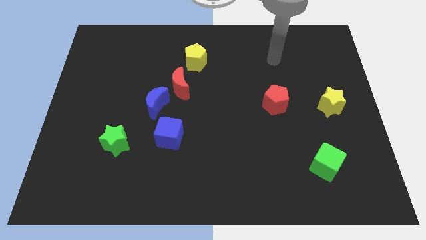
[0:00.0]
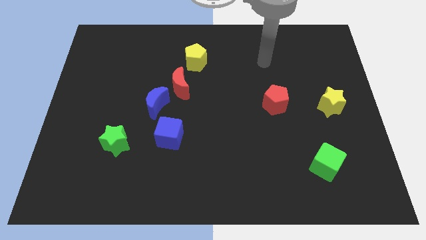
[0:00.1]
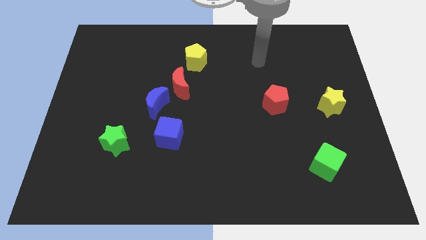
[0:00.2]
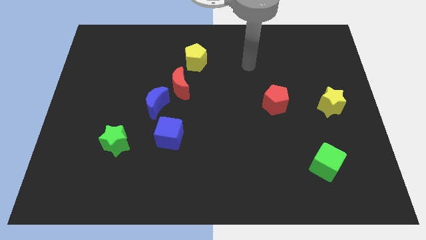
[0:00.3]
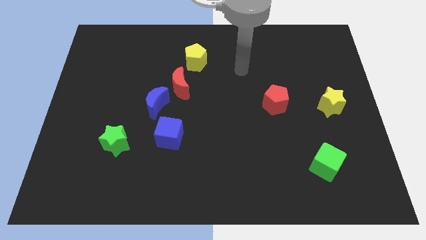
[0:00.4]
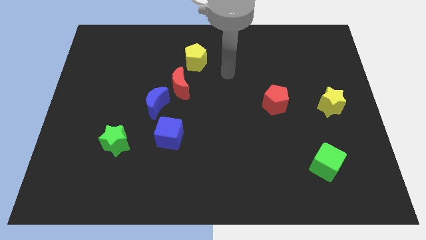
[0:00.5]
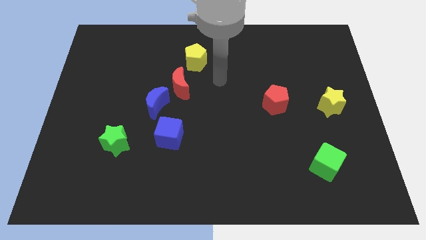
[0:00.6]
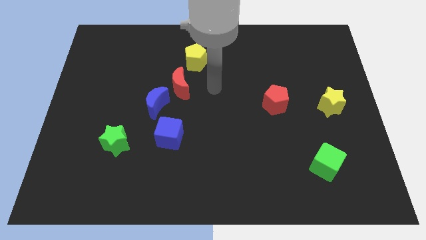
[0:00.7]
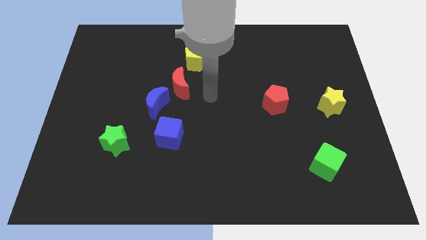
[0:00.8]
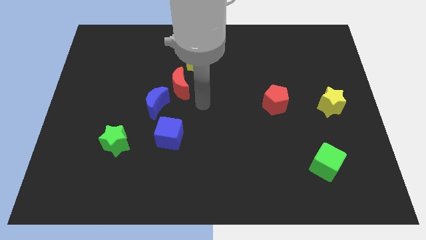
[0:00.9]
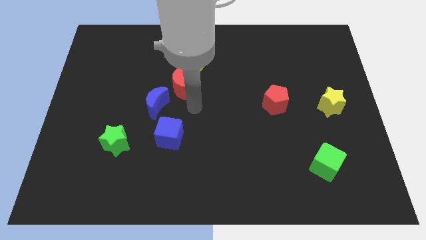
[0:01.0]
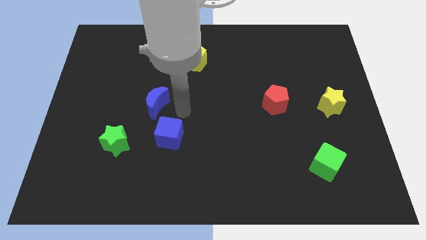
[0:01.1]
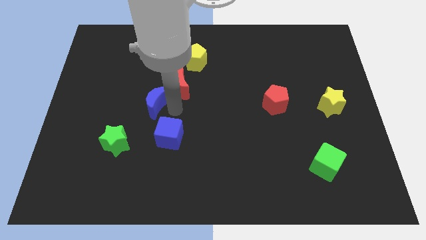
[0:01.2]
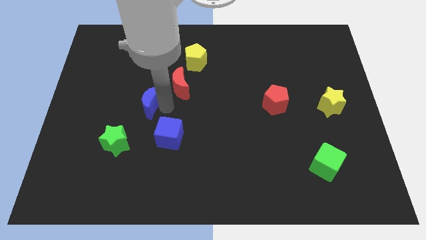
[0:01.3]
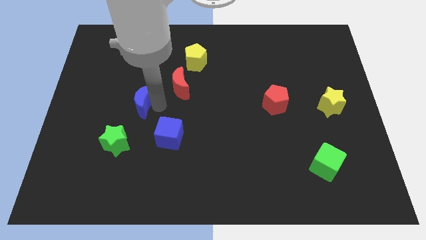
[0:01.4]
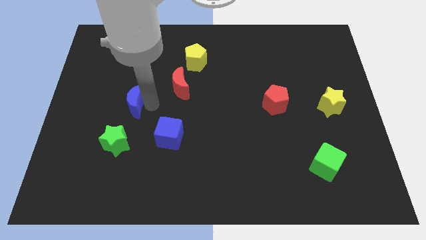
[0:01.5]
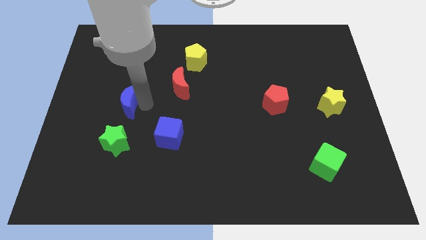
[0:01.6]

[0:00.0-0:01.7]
separate the blue moon from the red moon and blue cube

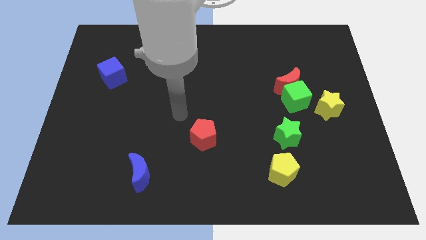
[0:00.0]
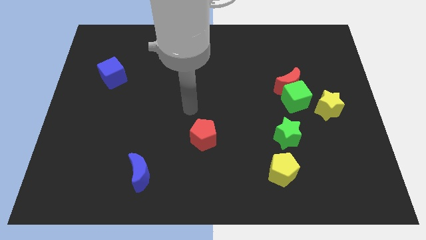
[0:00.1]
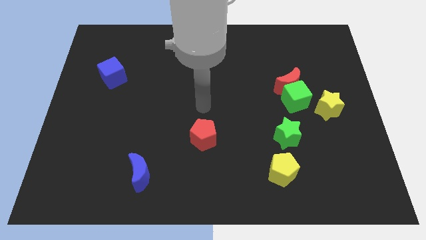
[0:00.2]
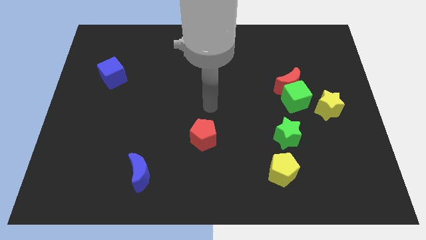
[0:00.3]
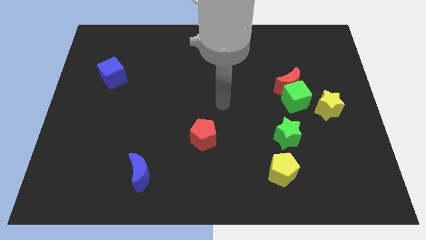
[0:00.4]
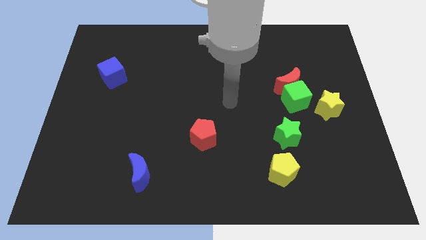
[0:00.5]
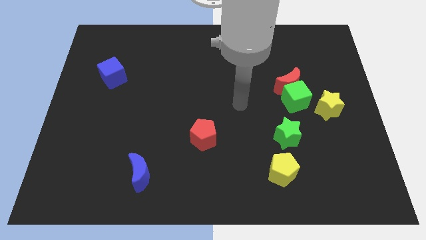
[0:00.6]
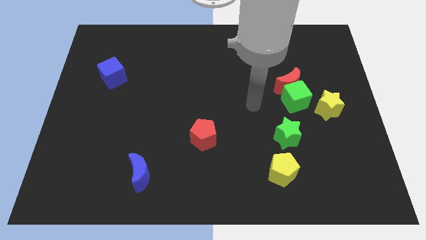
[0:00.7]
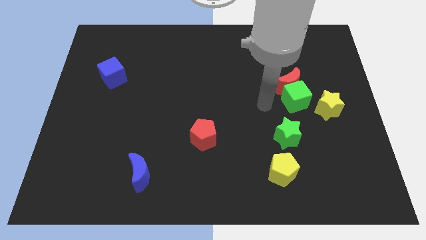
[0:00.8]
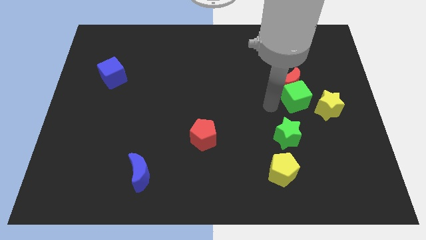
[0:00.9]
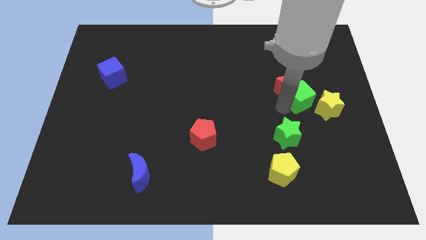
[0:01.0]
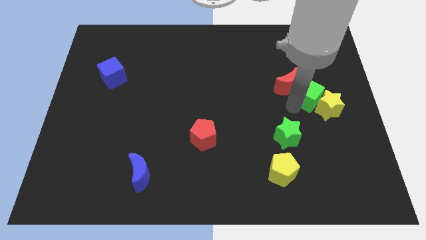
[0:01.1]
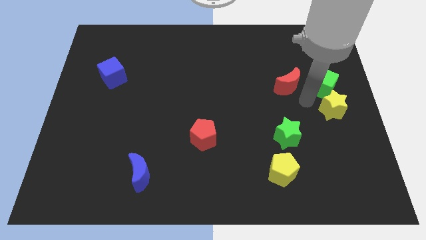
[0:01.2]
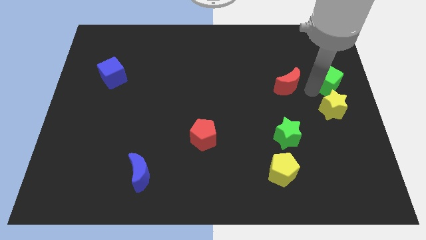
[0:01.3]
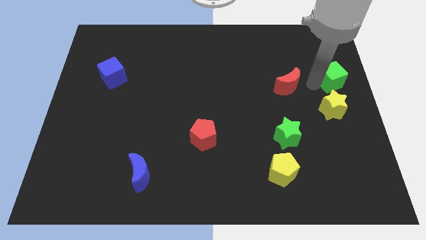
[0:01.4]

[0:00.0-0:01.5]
move the red moon away from the green cube

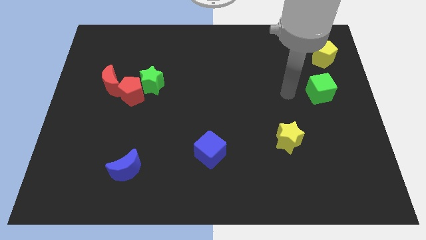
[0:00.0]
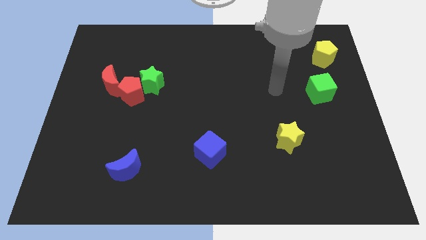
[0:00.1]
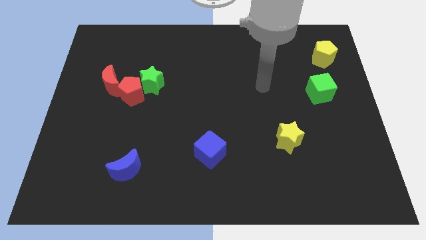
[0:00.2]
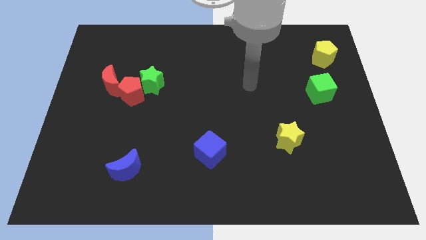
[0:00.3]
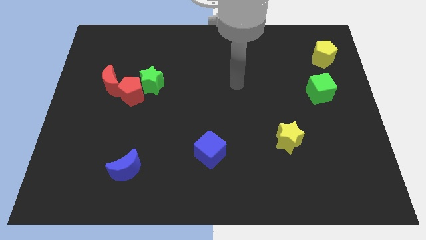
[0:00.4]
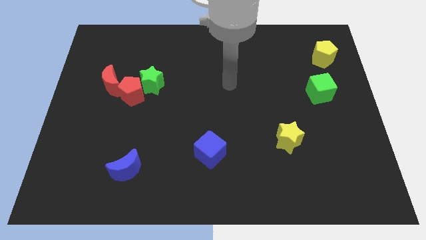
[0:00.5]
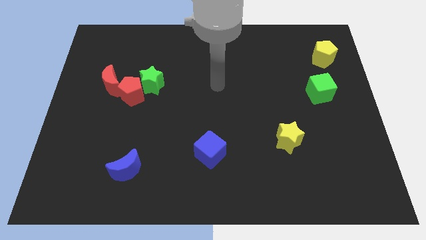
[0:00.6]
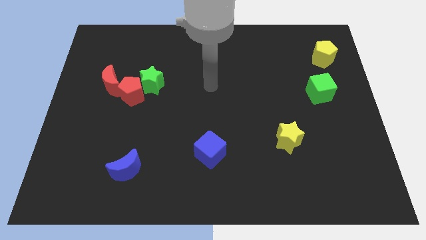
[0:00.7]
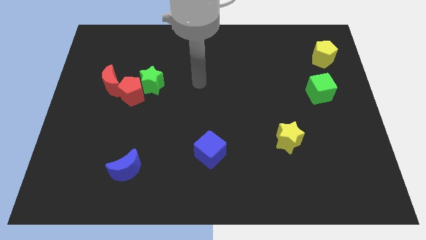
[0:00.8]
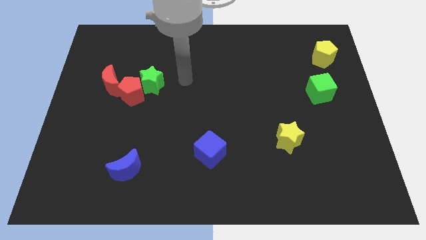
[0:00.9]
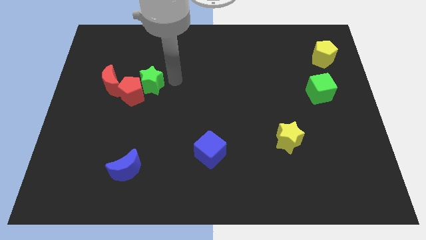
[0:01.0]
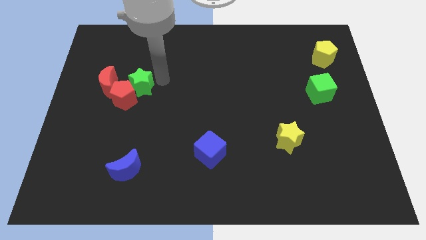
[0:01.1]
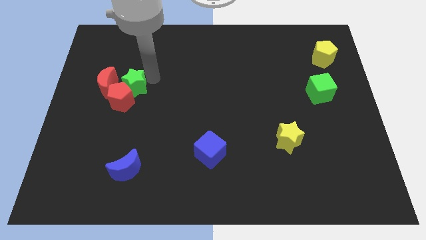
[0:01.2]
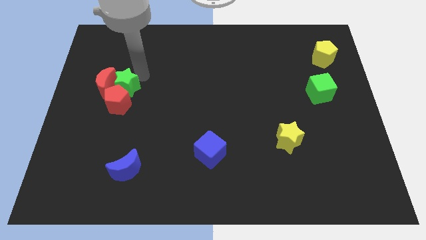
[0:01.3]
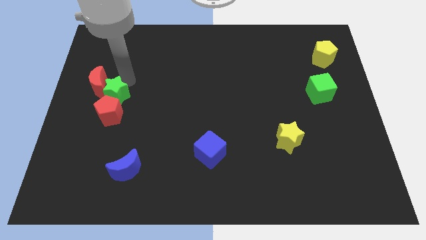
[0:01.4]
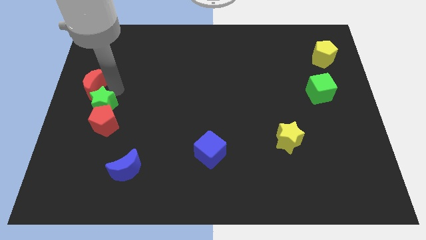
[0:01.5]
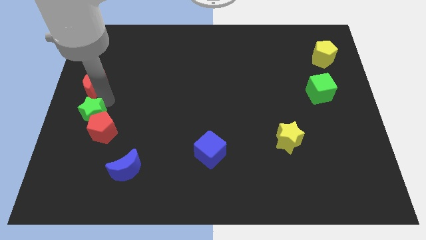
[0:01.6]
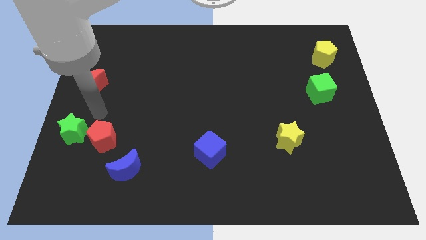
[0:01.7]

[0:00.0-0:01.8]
pull the red pentagon apart from the green star and red moon

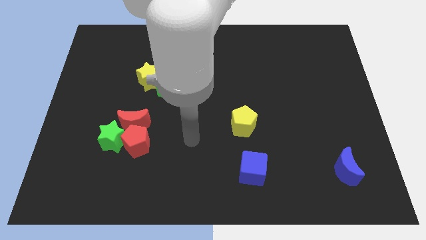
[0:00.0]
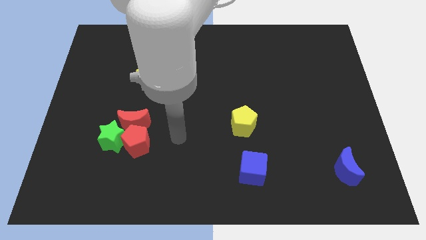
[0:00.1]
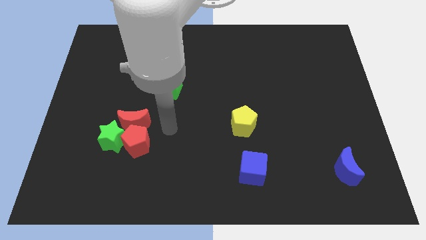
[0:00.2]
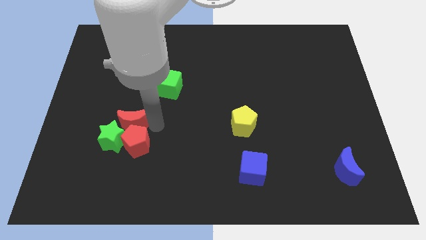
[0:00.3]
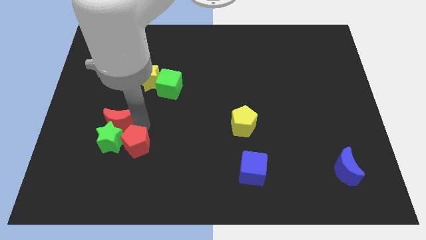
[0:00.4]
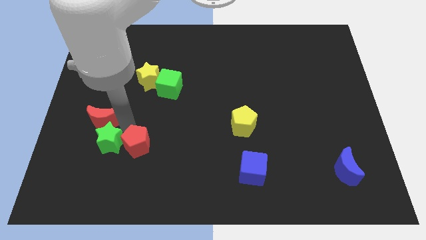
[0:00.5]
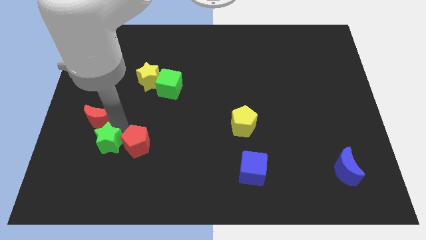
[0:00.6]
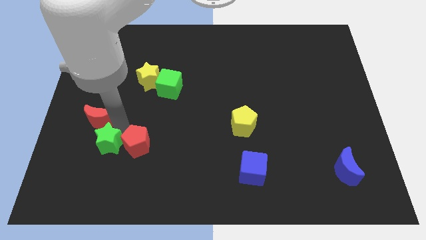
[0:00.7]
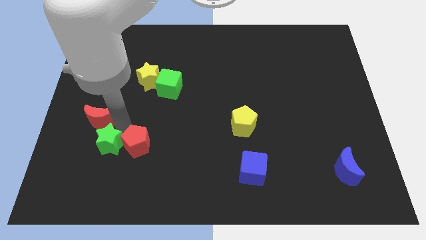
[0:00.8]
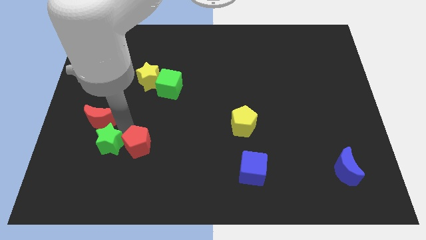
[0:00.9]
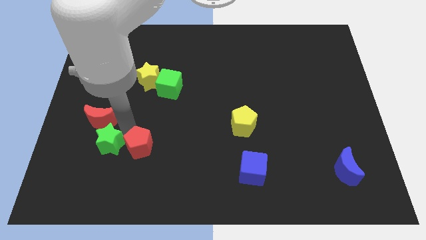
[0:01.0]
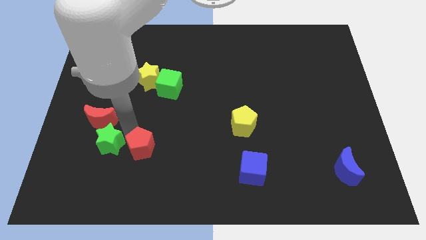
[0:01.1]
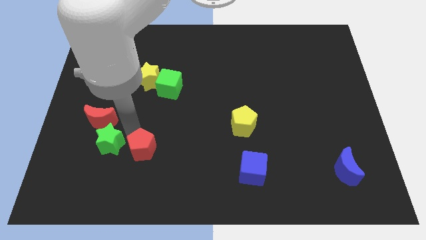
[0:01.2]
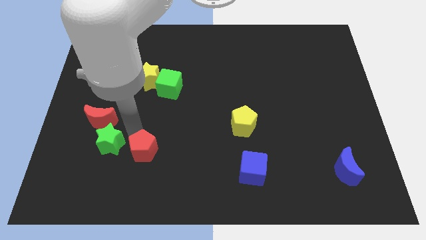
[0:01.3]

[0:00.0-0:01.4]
separate the red pentagon from the red moon and green star

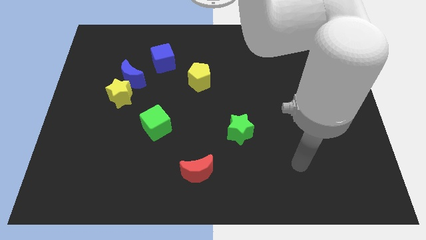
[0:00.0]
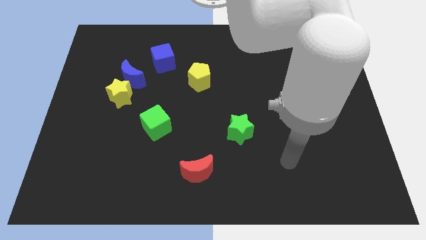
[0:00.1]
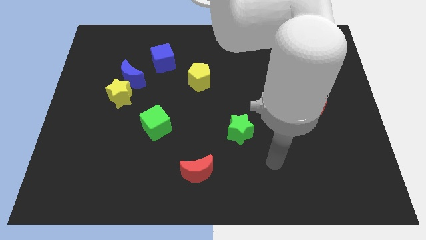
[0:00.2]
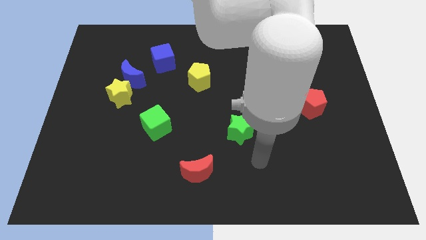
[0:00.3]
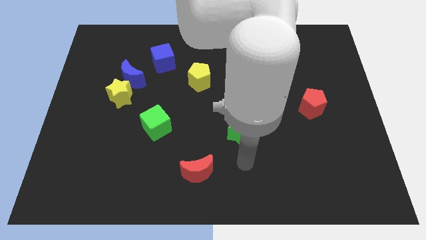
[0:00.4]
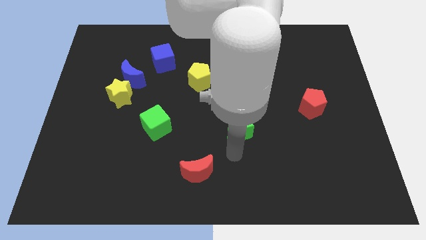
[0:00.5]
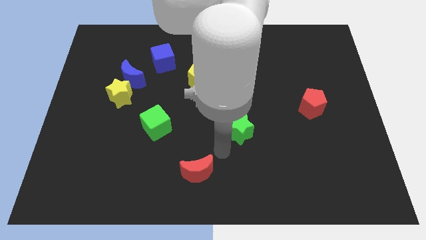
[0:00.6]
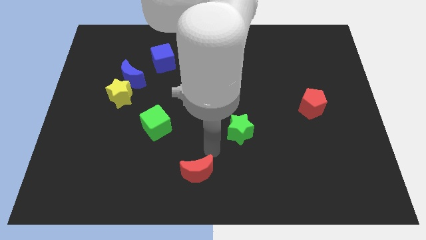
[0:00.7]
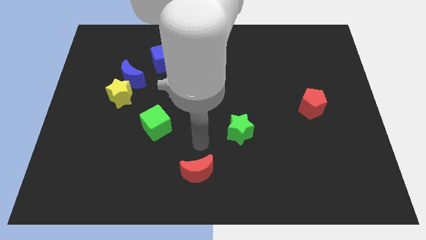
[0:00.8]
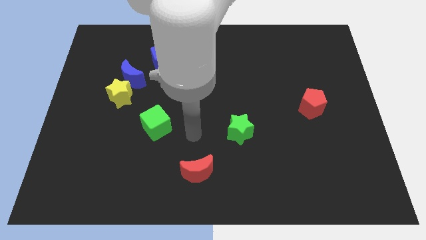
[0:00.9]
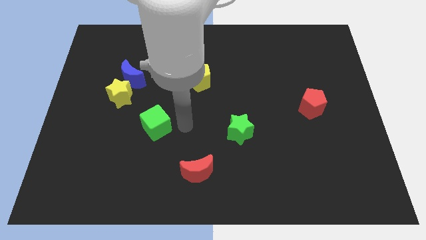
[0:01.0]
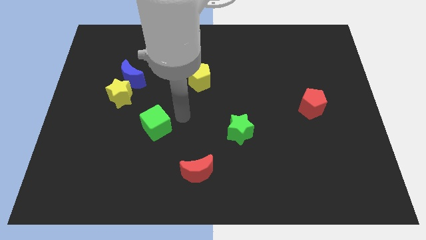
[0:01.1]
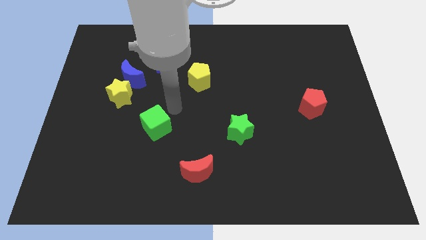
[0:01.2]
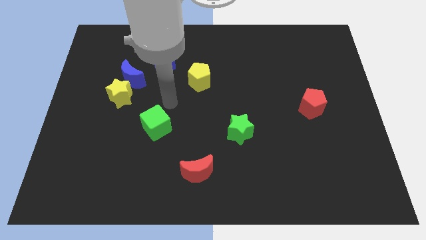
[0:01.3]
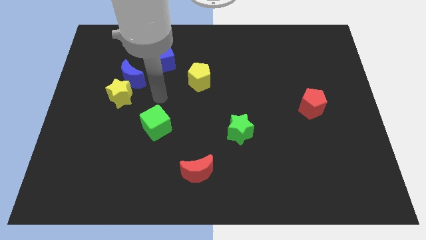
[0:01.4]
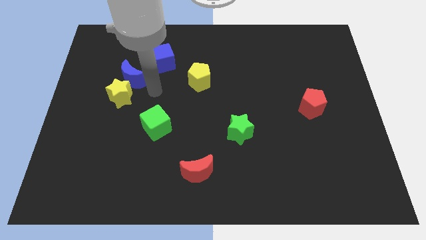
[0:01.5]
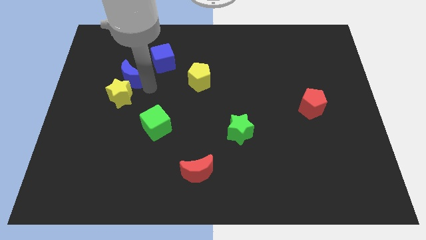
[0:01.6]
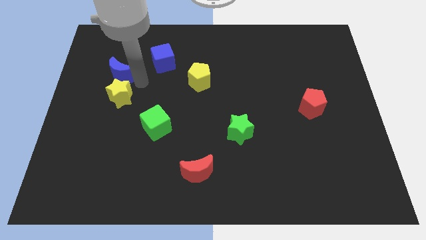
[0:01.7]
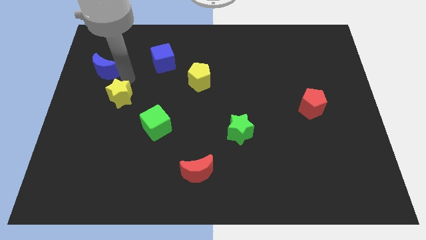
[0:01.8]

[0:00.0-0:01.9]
move the yellow star away from the blue moon

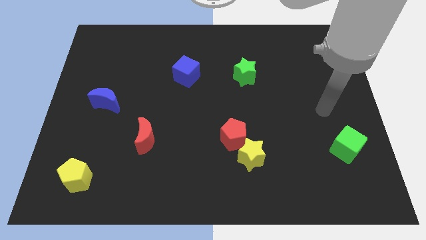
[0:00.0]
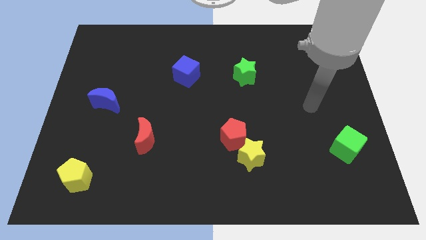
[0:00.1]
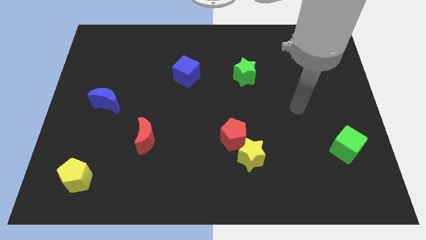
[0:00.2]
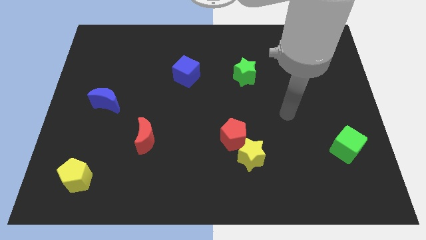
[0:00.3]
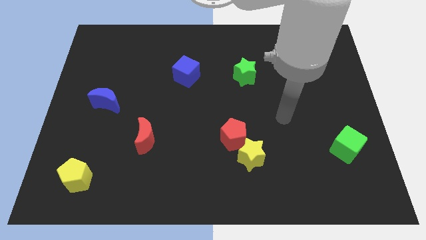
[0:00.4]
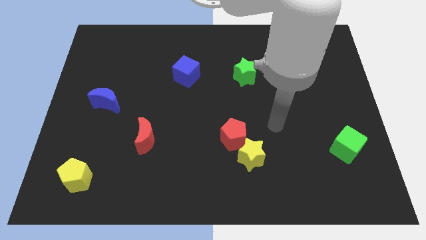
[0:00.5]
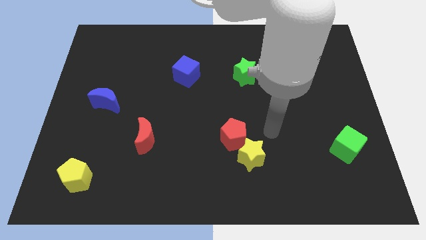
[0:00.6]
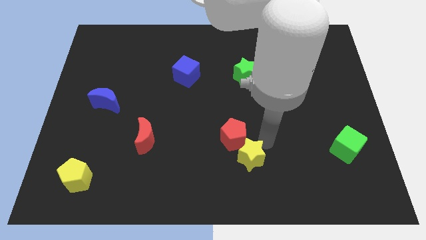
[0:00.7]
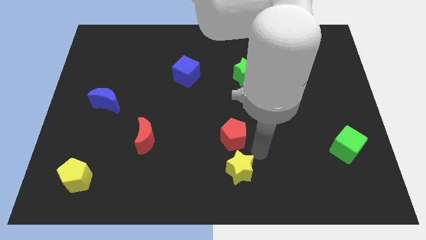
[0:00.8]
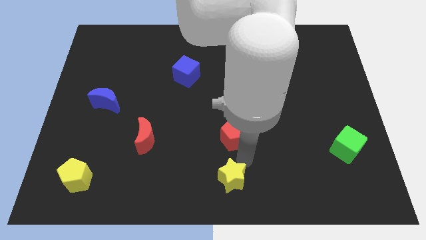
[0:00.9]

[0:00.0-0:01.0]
separate the red pentagon from the yellow star
